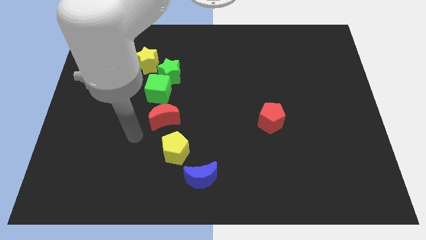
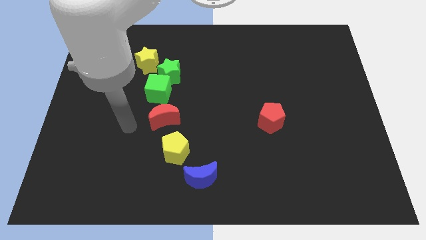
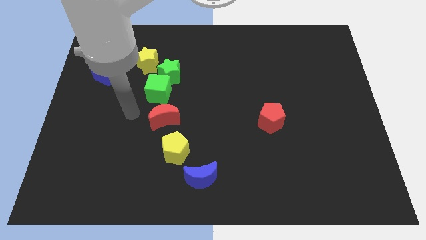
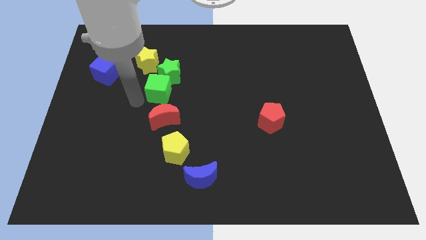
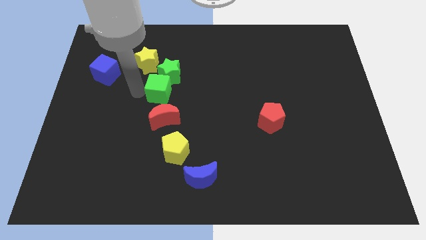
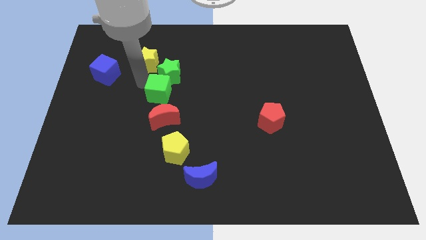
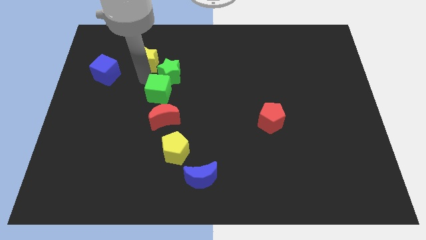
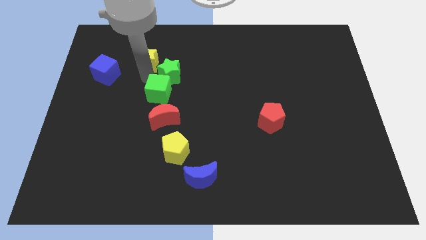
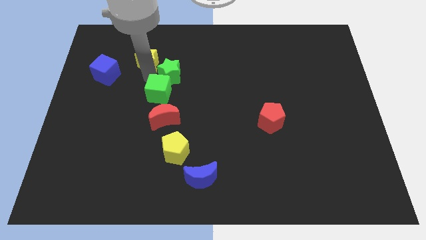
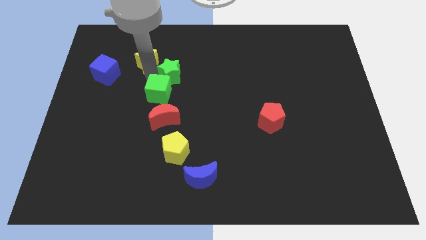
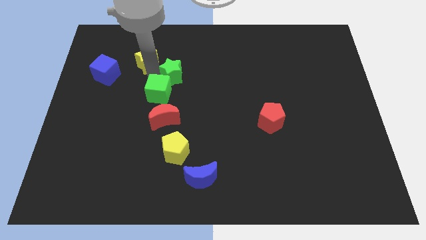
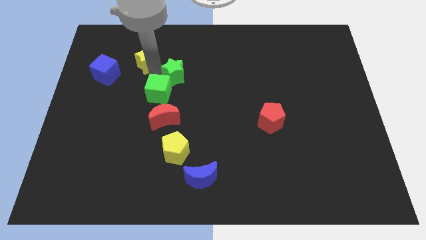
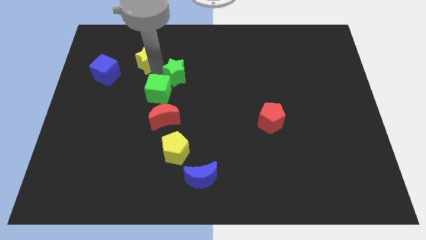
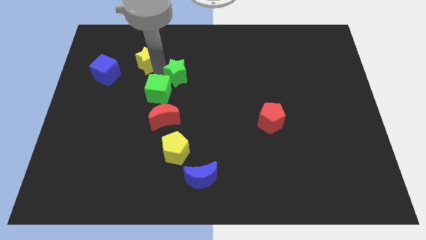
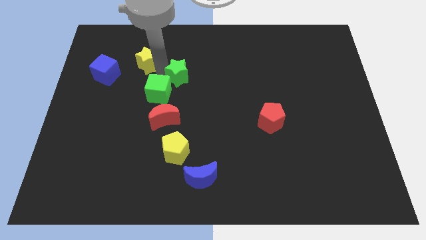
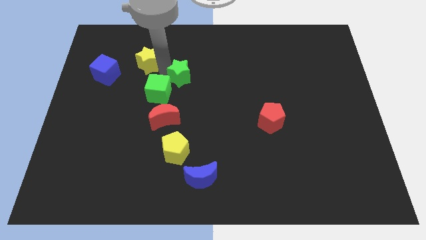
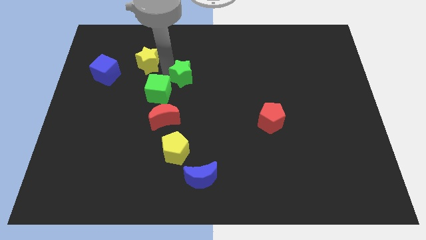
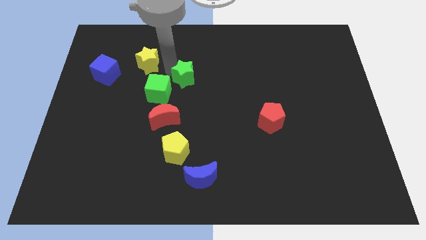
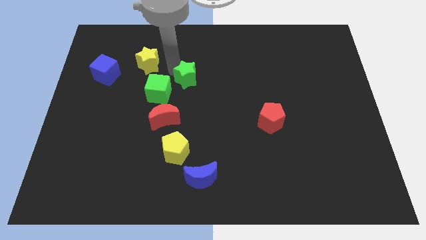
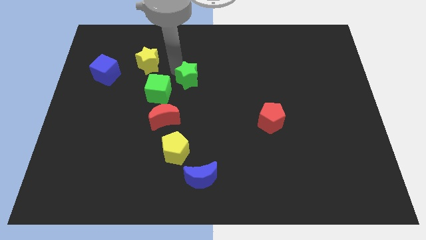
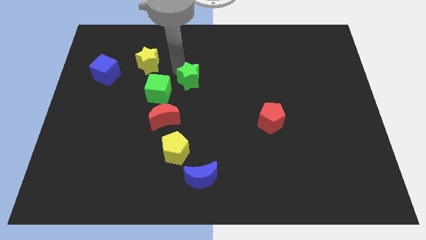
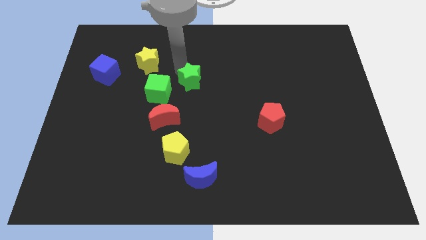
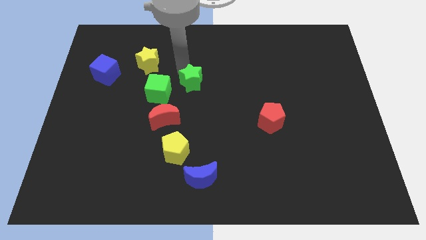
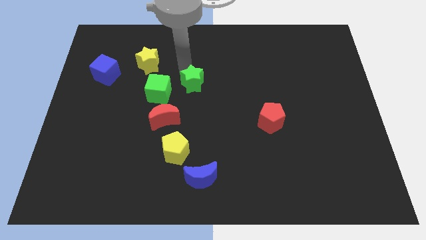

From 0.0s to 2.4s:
pull the green star apart from the green cube and yellow star

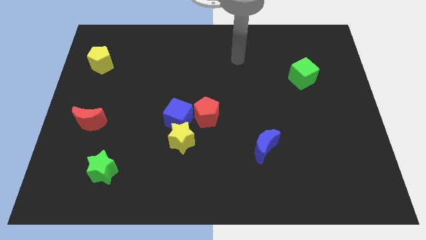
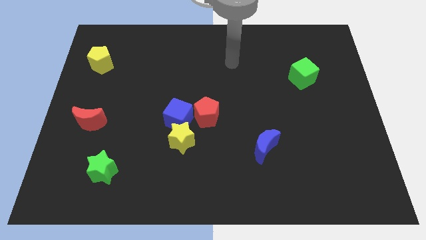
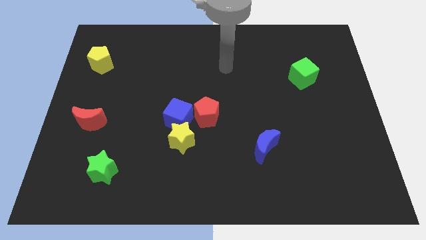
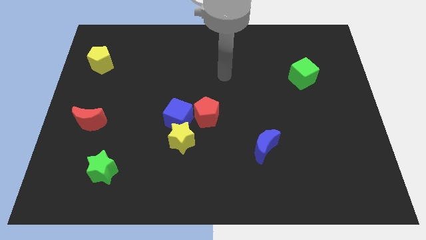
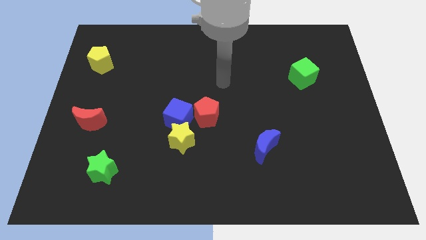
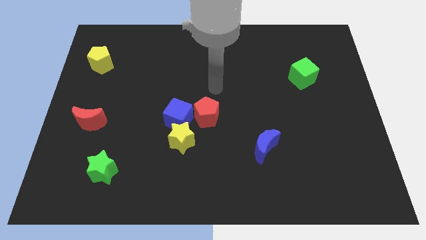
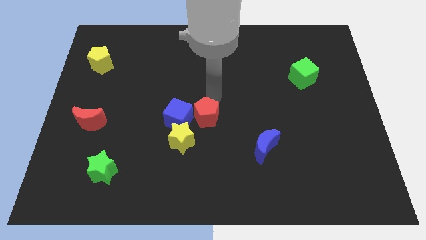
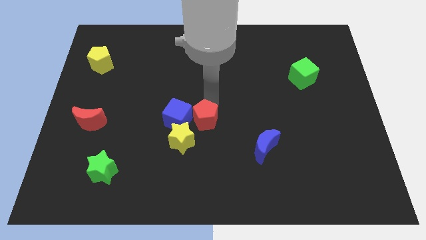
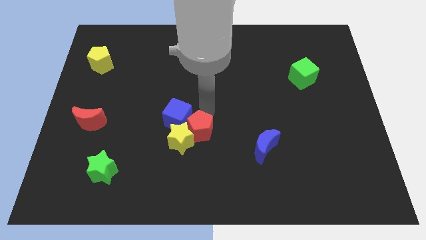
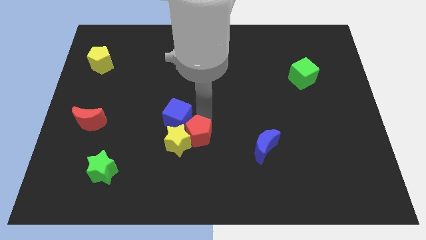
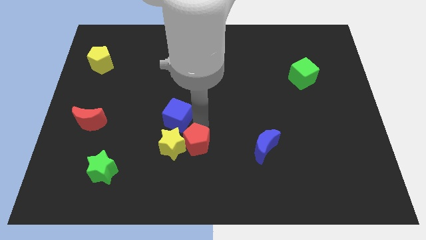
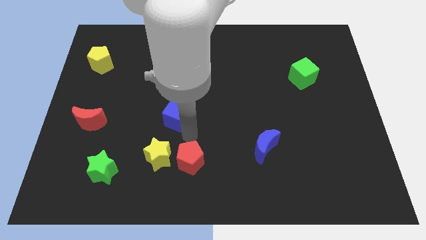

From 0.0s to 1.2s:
pull the blue cube apart from the yellow star and red pentagon

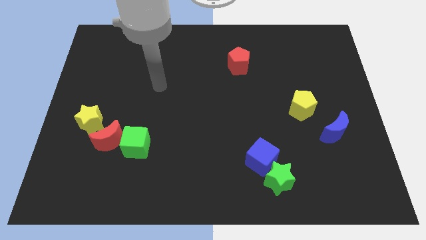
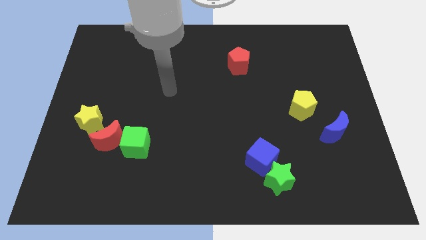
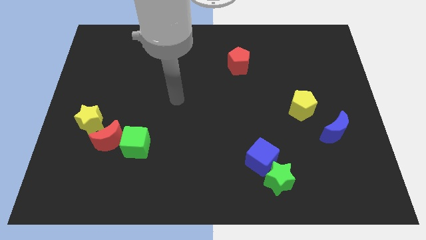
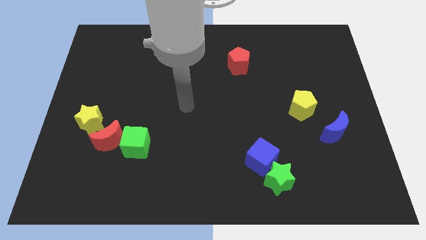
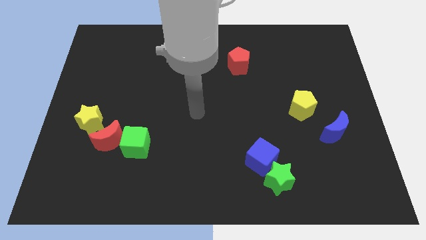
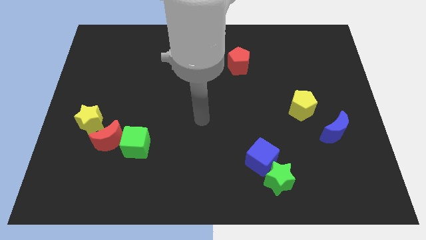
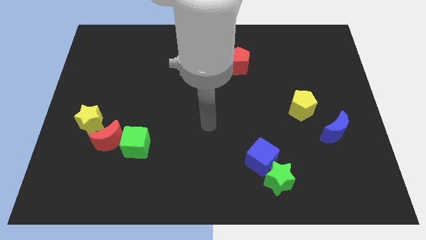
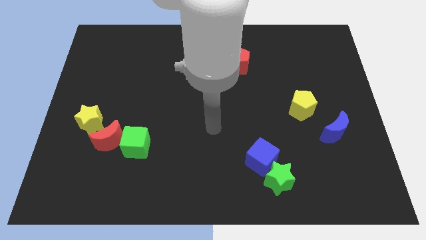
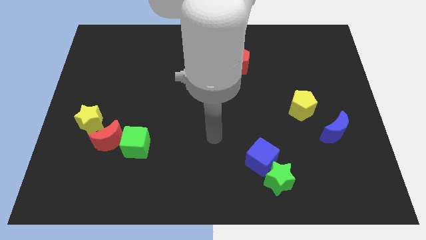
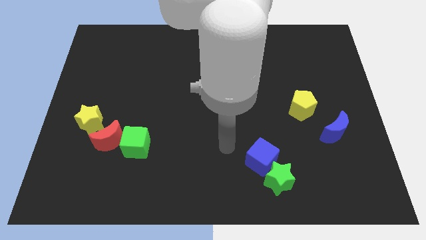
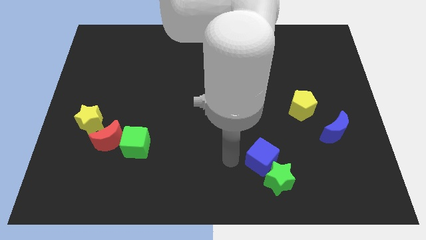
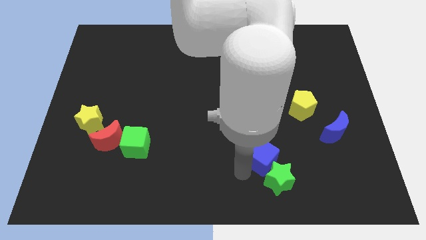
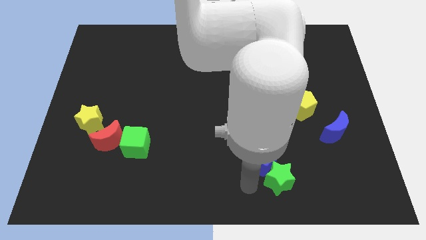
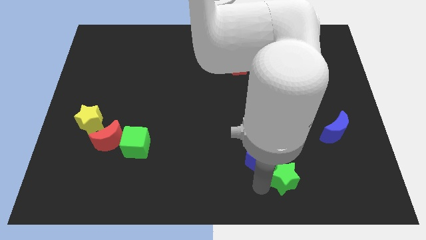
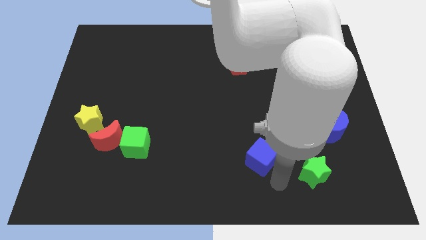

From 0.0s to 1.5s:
pull the blue cube apart from the green star

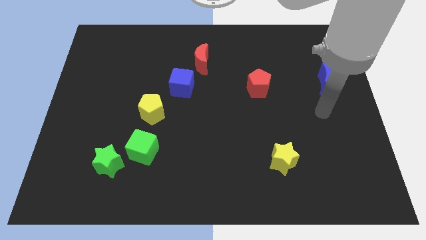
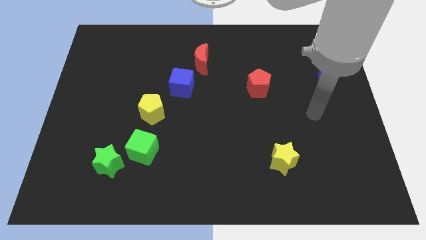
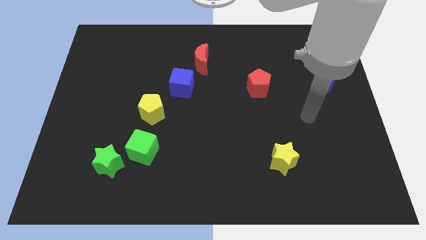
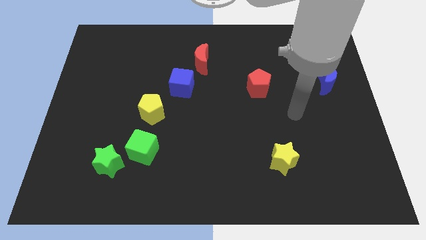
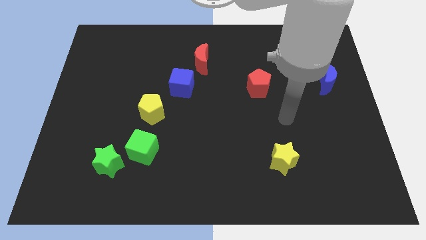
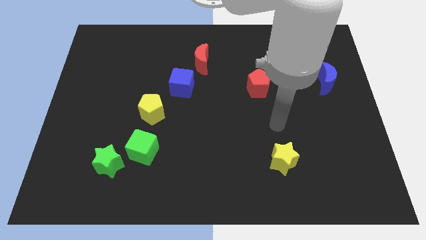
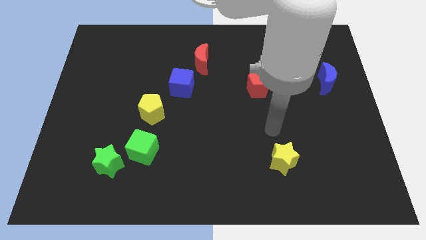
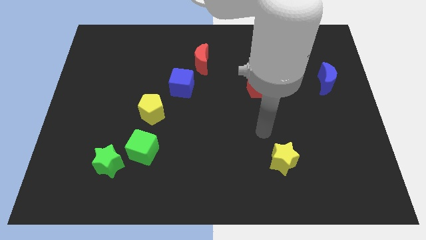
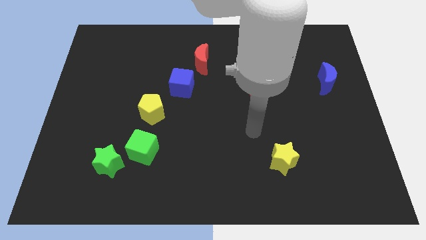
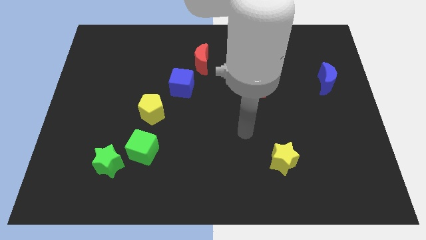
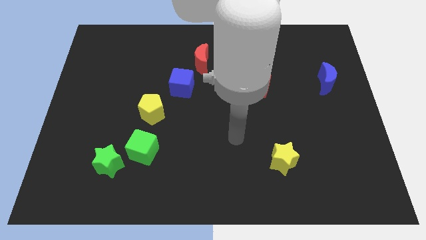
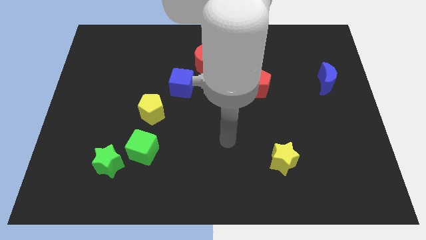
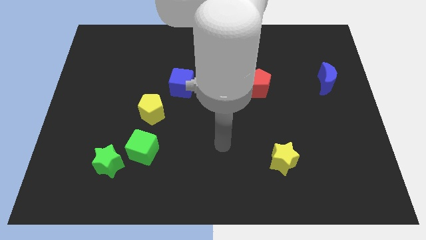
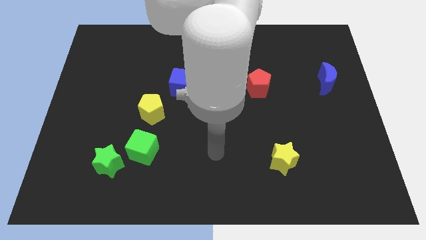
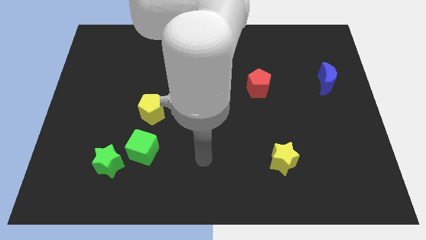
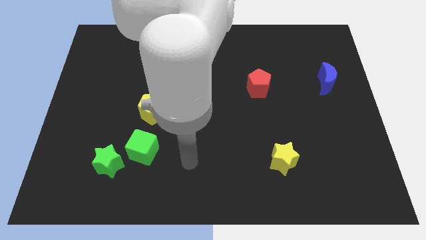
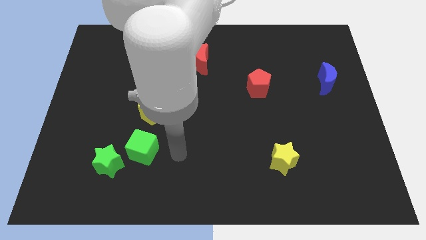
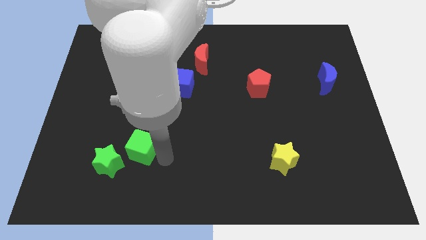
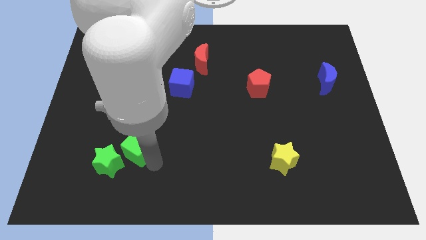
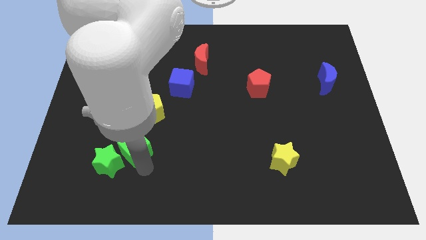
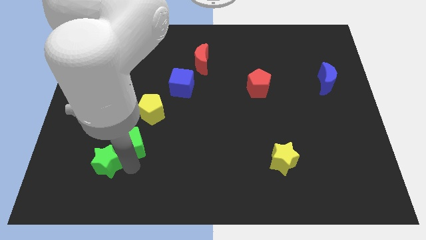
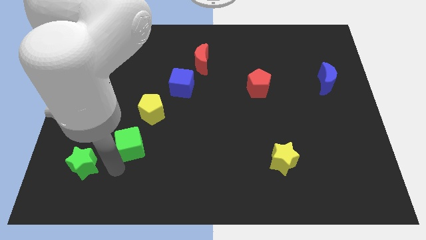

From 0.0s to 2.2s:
separate the green cube from the green star

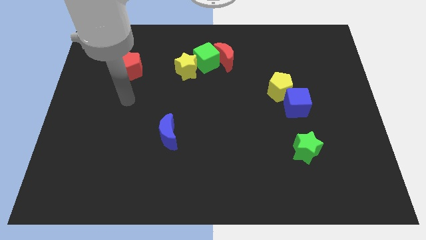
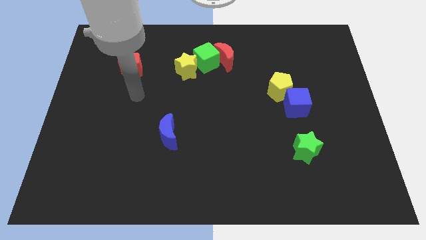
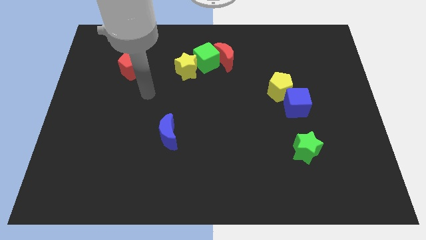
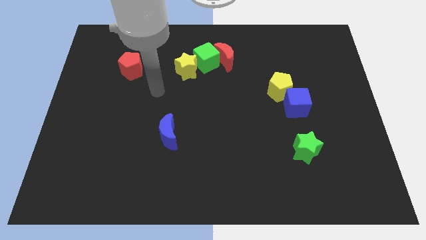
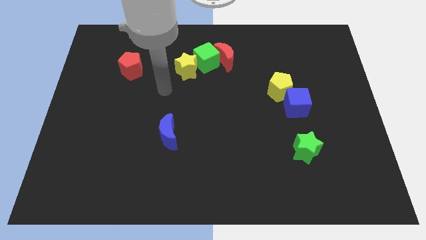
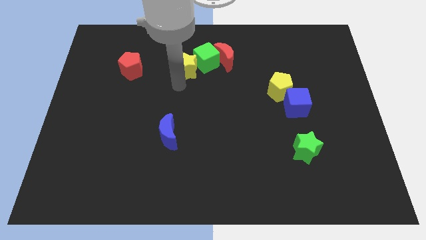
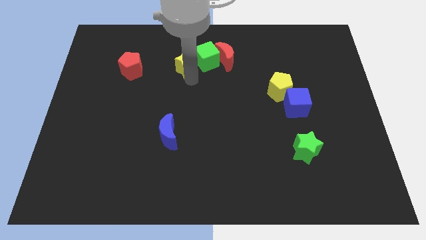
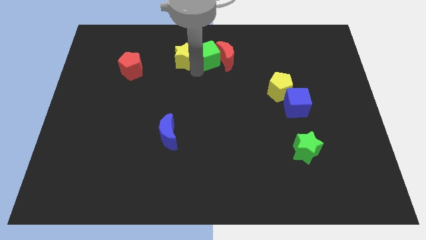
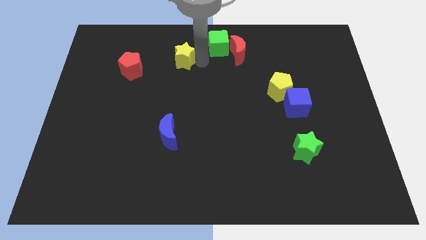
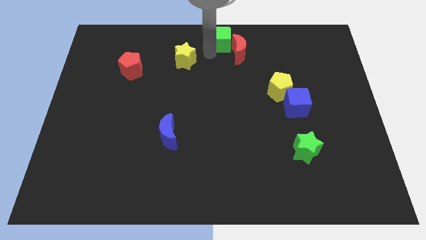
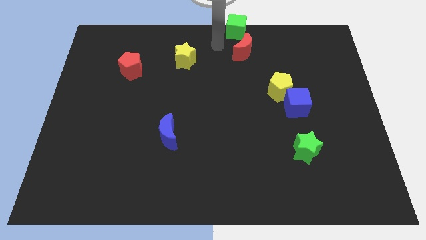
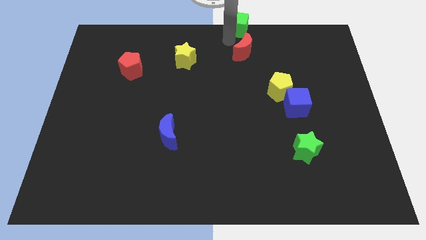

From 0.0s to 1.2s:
move the red moon away from the green cube

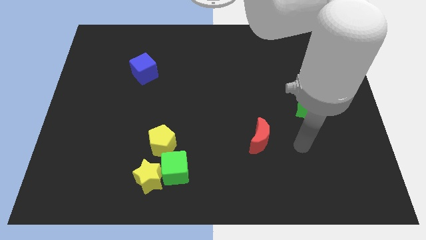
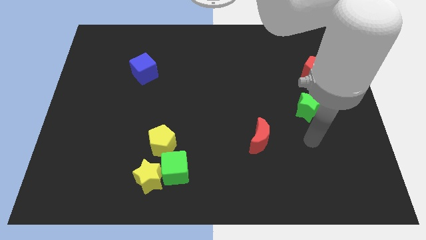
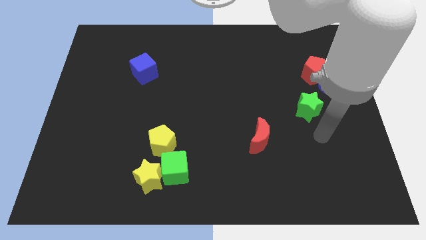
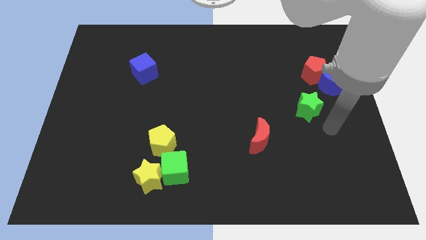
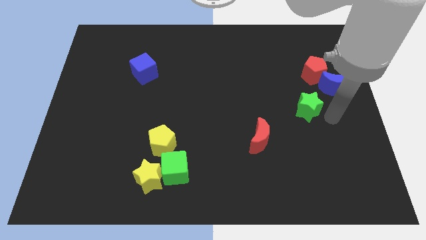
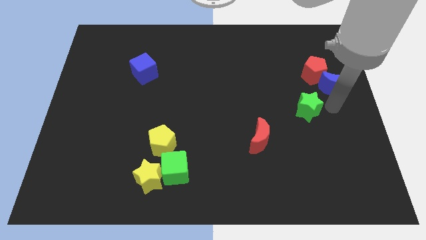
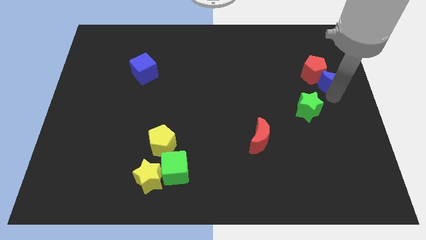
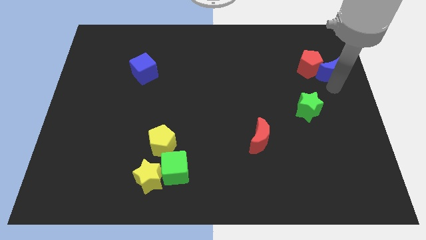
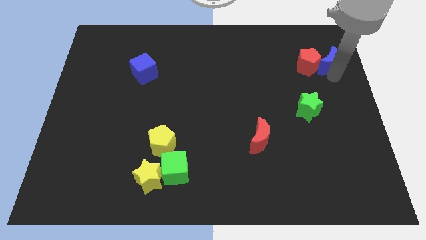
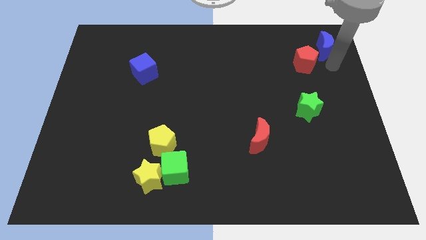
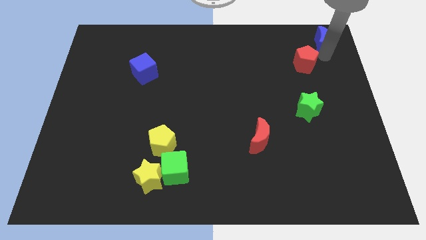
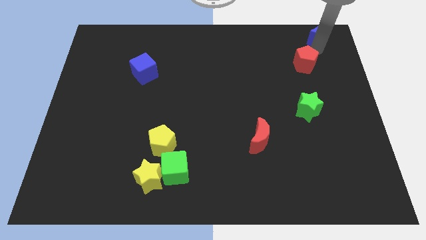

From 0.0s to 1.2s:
separate the red pentagon from the blue moon
